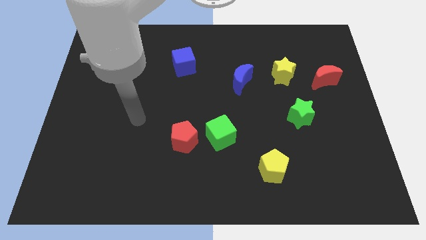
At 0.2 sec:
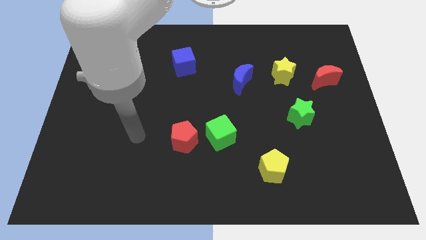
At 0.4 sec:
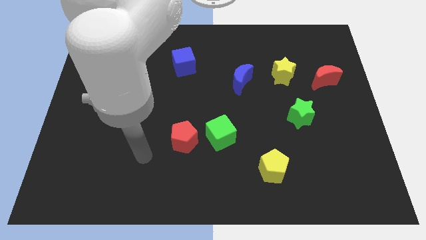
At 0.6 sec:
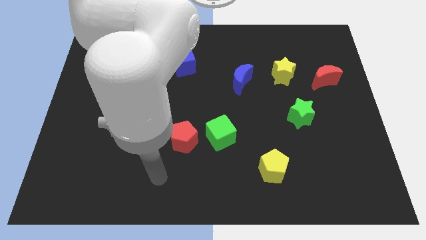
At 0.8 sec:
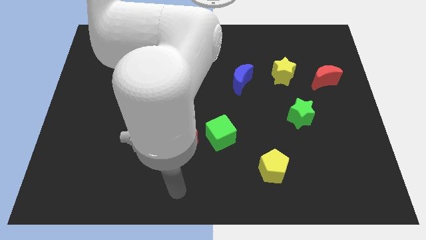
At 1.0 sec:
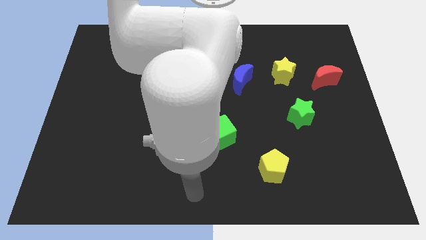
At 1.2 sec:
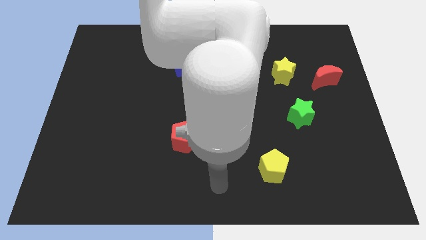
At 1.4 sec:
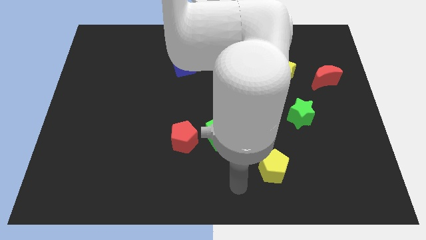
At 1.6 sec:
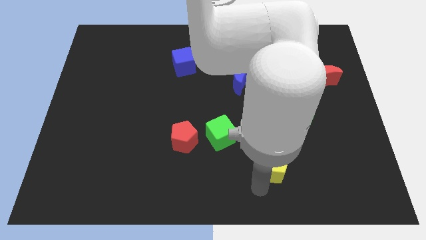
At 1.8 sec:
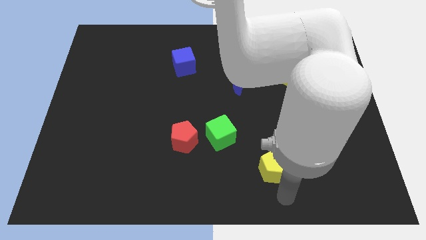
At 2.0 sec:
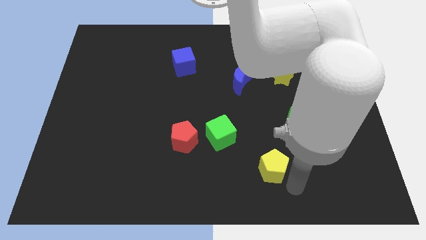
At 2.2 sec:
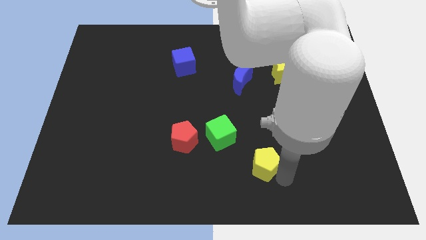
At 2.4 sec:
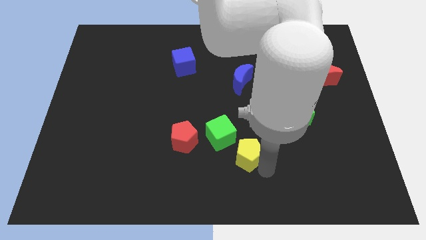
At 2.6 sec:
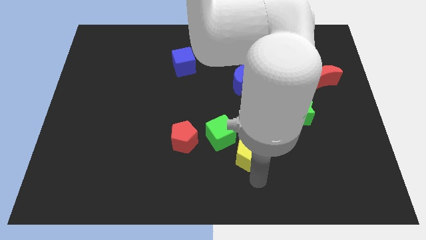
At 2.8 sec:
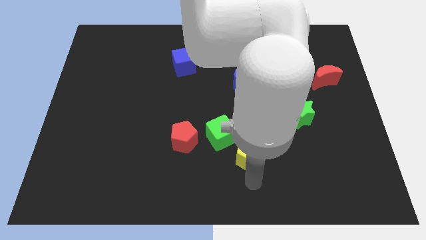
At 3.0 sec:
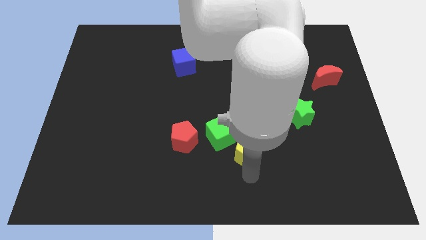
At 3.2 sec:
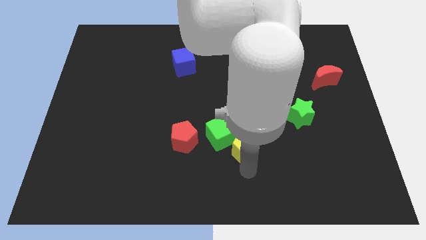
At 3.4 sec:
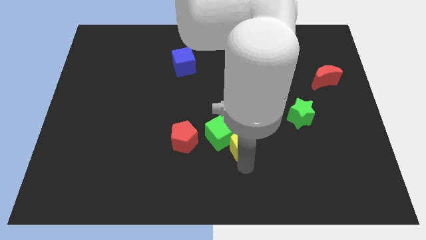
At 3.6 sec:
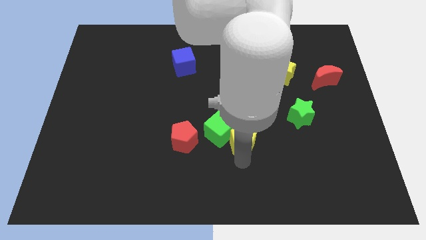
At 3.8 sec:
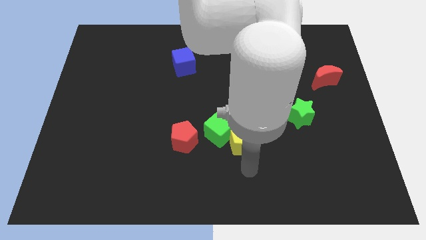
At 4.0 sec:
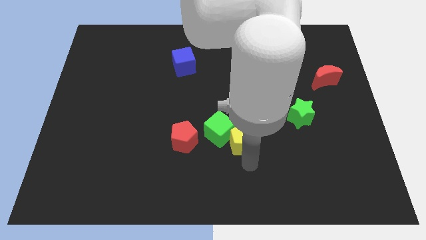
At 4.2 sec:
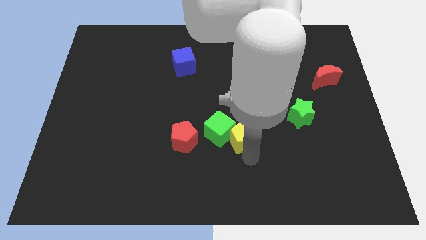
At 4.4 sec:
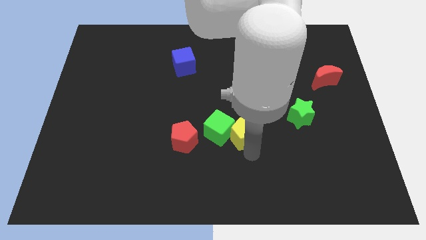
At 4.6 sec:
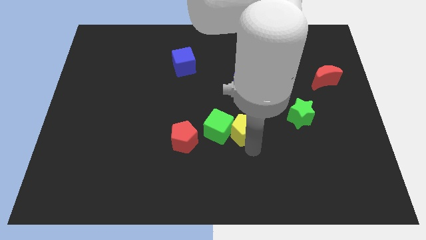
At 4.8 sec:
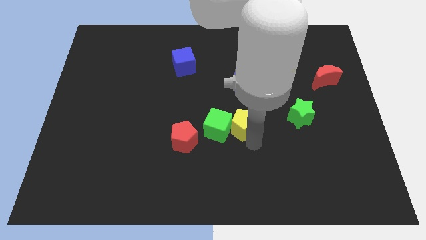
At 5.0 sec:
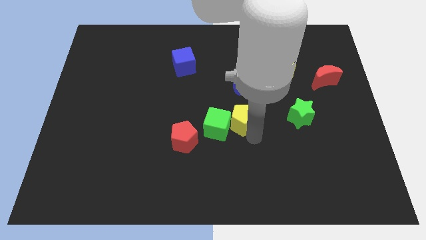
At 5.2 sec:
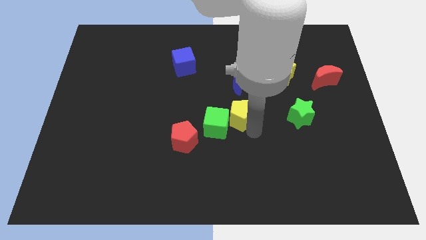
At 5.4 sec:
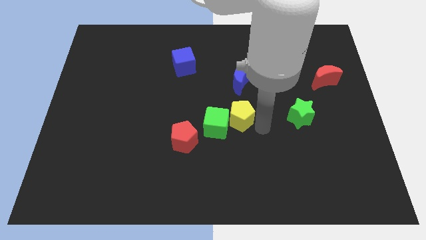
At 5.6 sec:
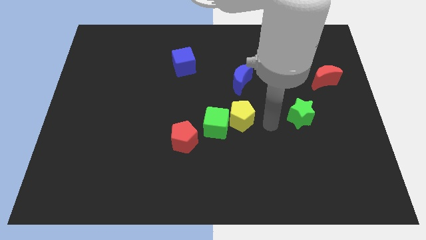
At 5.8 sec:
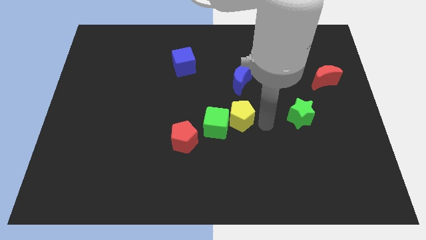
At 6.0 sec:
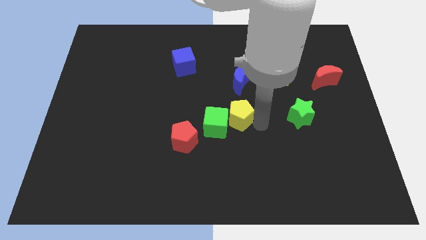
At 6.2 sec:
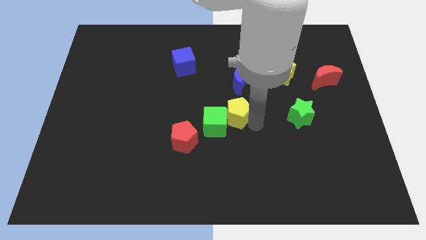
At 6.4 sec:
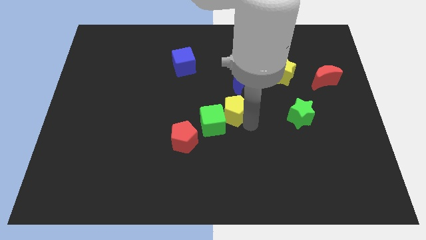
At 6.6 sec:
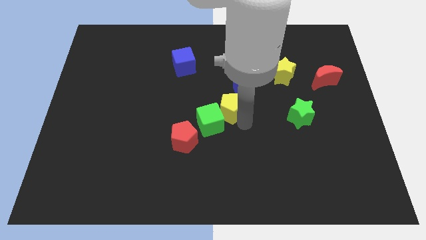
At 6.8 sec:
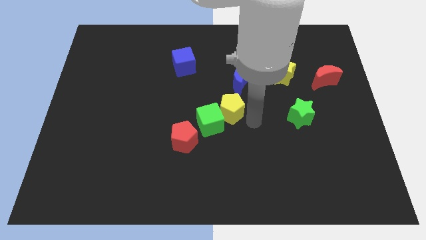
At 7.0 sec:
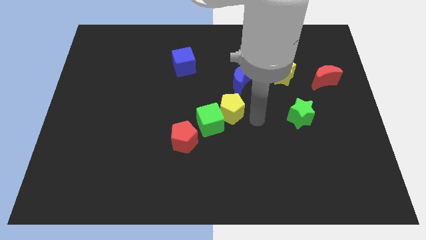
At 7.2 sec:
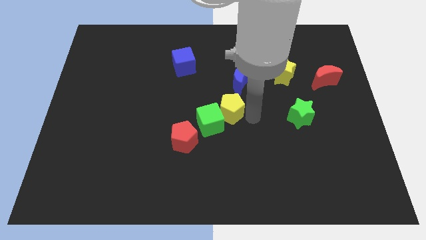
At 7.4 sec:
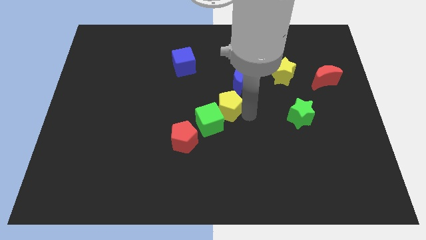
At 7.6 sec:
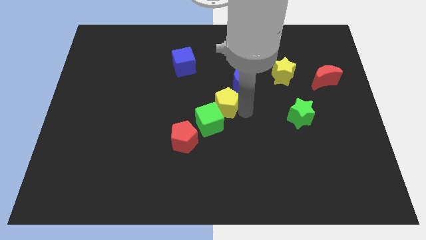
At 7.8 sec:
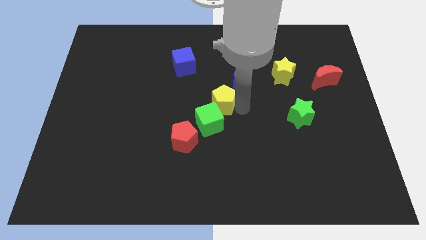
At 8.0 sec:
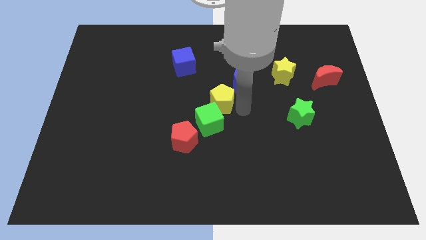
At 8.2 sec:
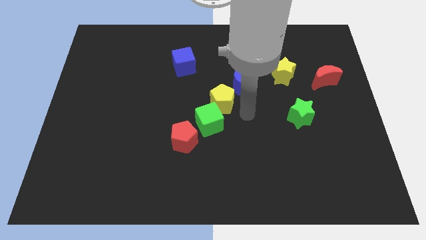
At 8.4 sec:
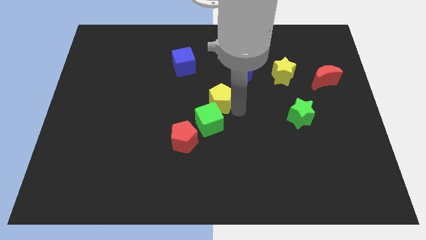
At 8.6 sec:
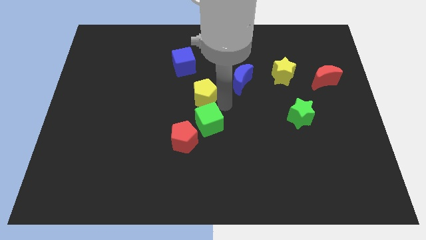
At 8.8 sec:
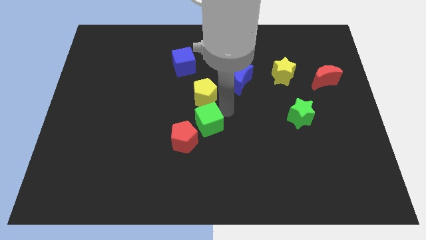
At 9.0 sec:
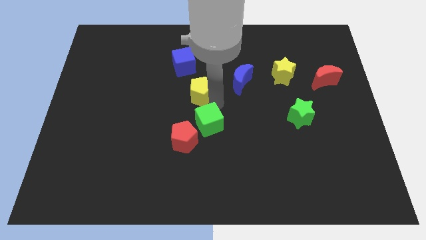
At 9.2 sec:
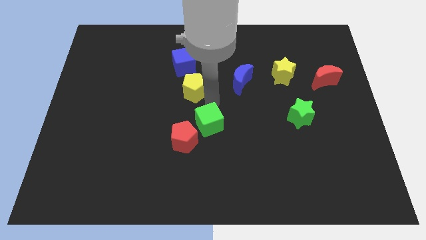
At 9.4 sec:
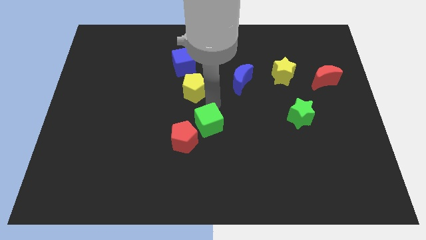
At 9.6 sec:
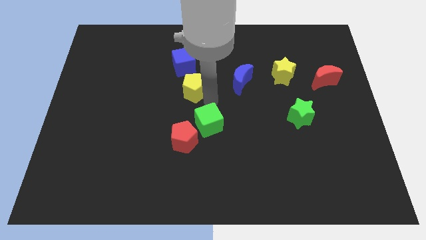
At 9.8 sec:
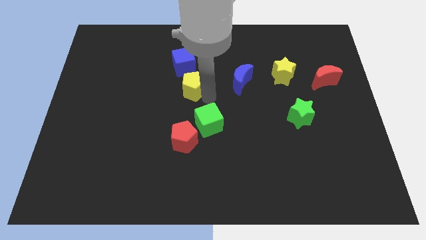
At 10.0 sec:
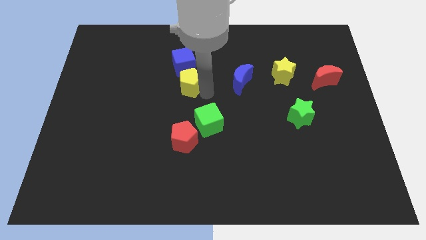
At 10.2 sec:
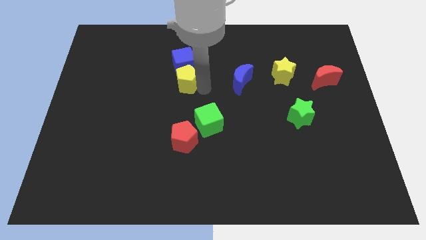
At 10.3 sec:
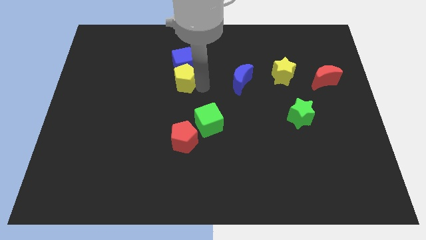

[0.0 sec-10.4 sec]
move the yellow pentagon diagonally down and to the left of the blue cube

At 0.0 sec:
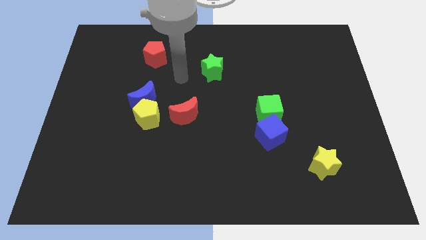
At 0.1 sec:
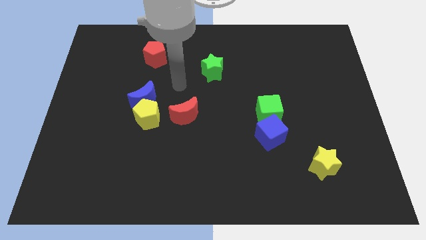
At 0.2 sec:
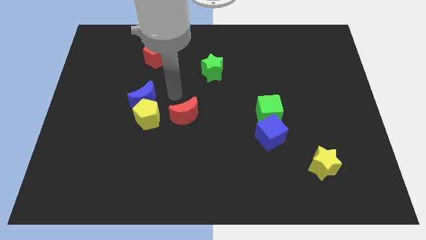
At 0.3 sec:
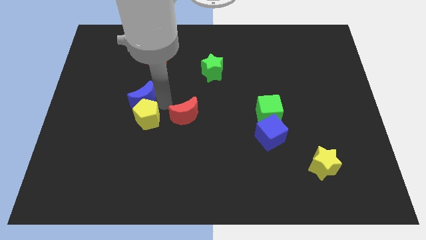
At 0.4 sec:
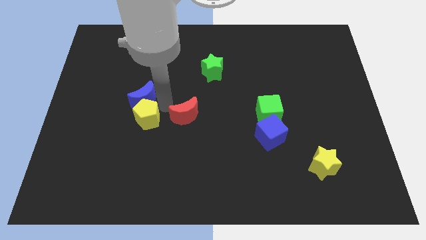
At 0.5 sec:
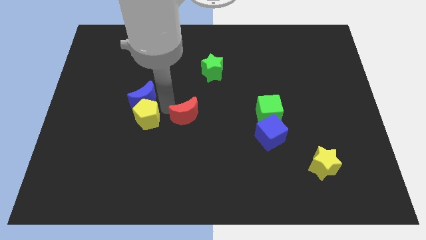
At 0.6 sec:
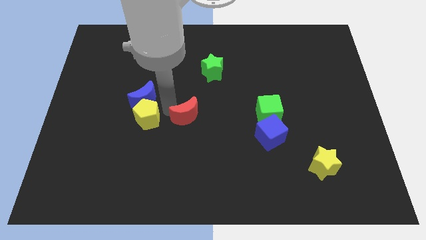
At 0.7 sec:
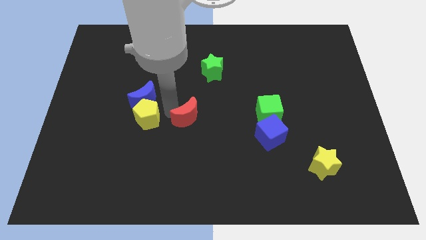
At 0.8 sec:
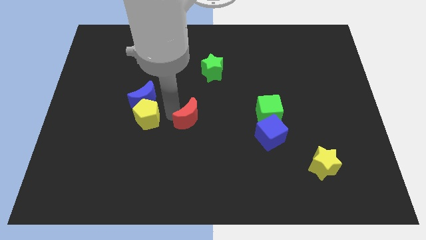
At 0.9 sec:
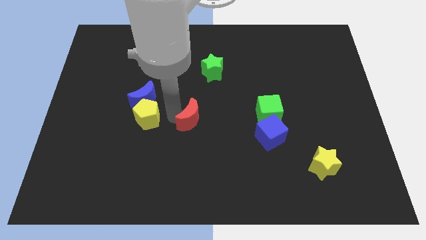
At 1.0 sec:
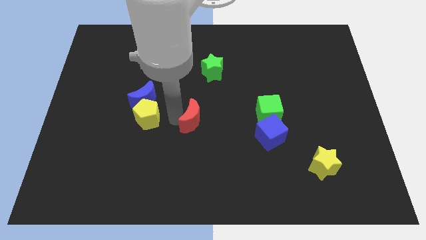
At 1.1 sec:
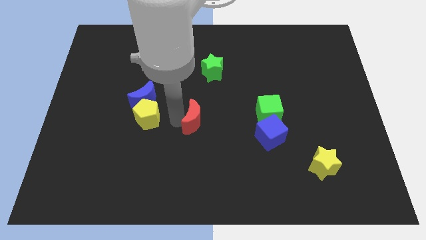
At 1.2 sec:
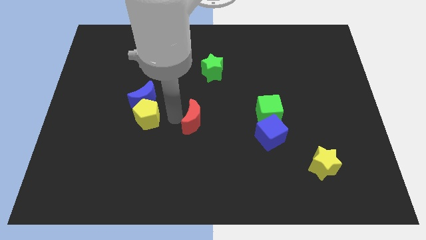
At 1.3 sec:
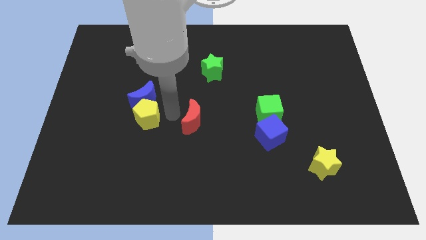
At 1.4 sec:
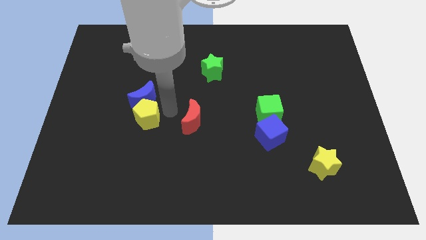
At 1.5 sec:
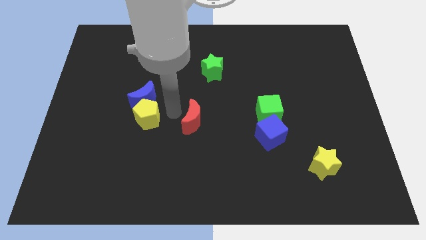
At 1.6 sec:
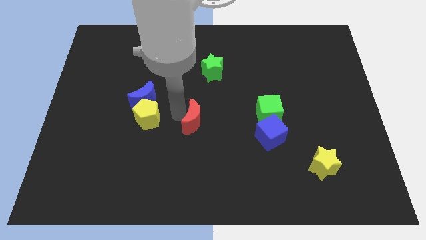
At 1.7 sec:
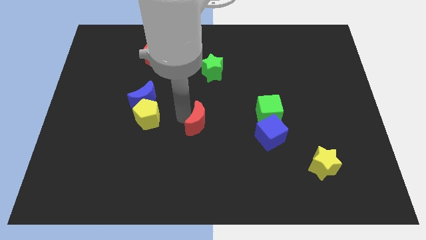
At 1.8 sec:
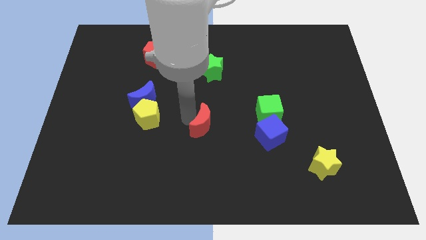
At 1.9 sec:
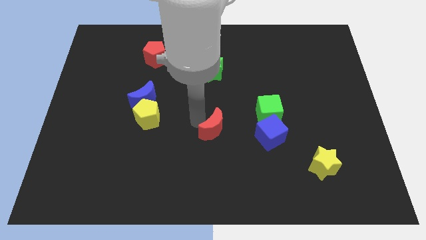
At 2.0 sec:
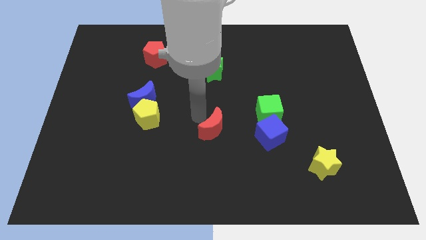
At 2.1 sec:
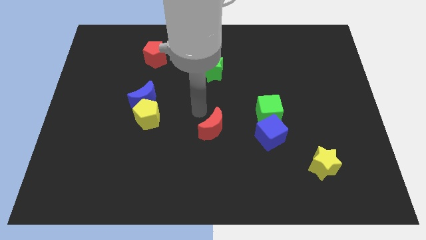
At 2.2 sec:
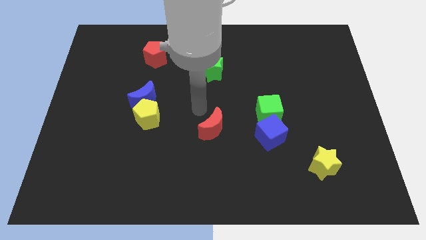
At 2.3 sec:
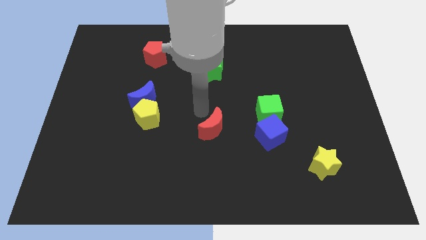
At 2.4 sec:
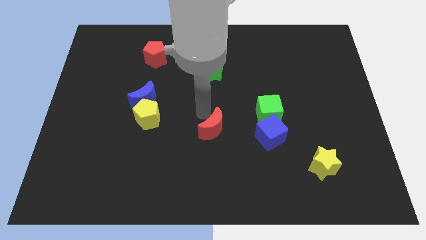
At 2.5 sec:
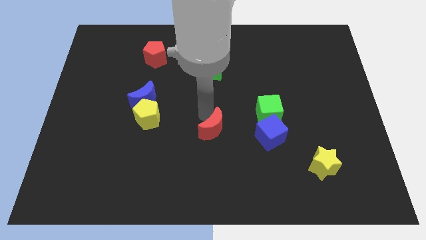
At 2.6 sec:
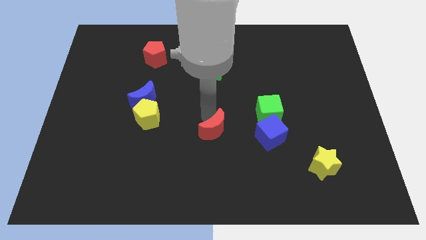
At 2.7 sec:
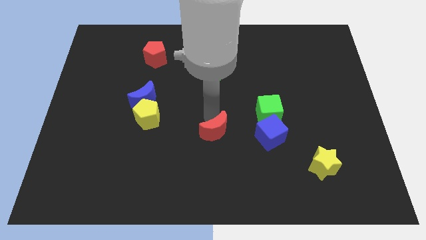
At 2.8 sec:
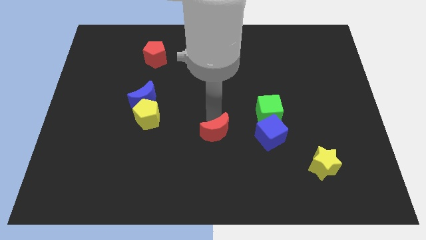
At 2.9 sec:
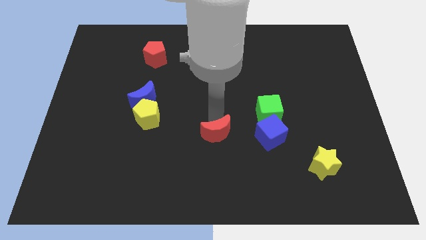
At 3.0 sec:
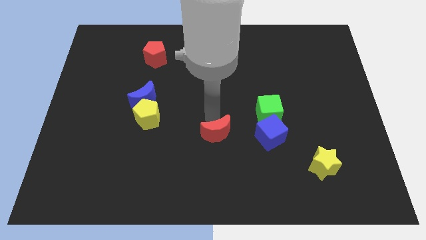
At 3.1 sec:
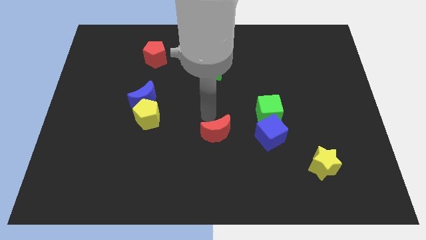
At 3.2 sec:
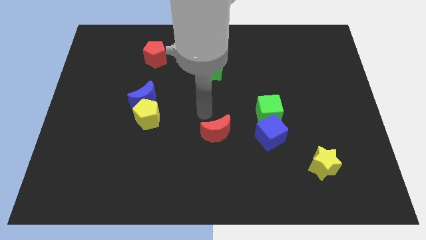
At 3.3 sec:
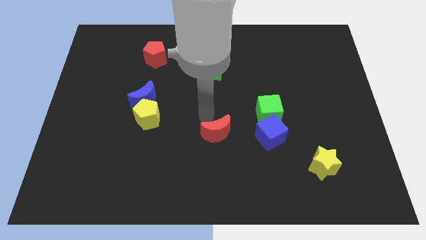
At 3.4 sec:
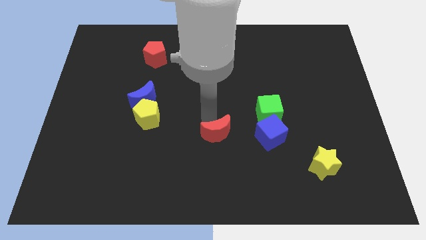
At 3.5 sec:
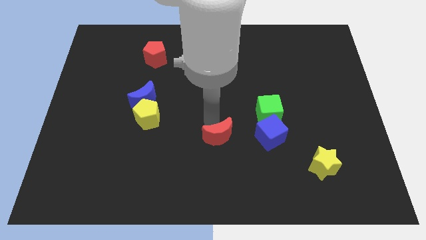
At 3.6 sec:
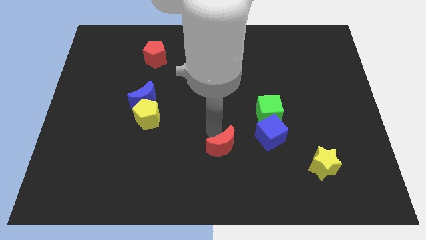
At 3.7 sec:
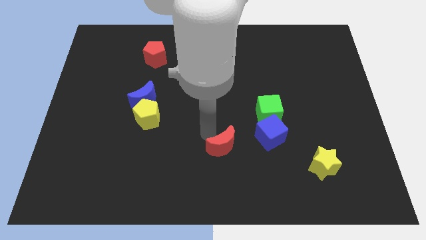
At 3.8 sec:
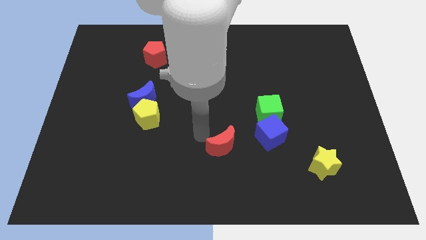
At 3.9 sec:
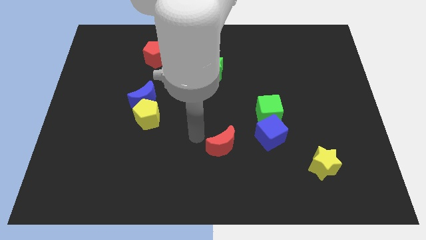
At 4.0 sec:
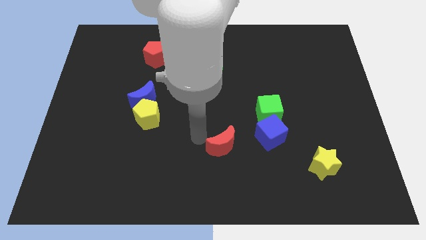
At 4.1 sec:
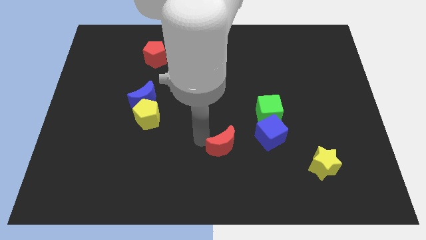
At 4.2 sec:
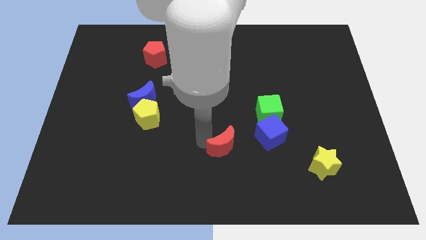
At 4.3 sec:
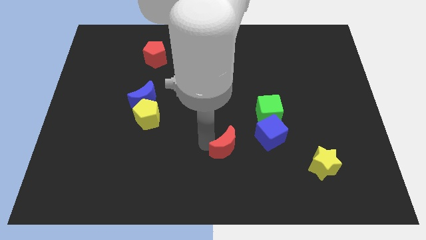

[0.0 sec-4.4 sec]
move the red moon diagonally down and to the left of the blue cube
